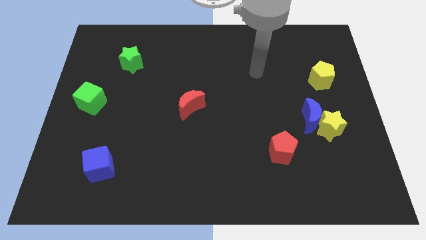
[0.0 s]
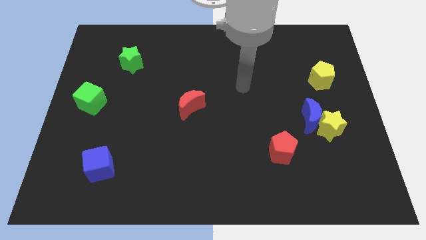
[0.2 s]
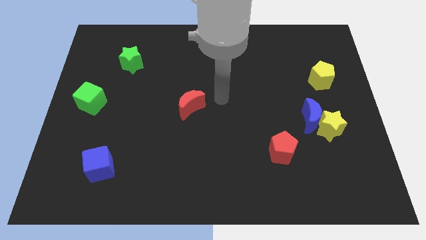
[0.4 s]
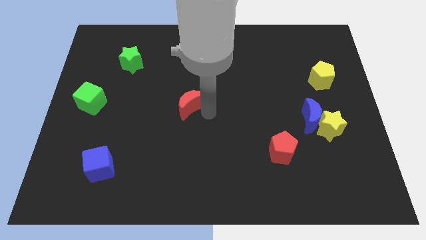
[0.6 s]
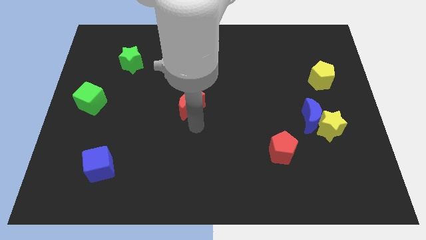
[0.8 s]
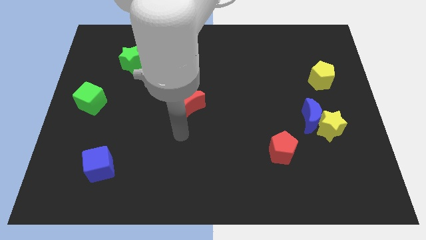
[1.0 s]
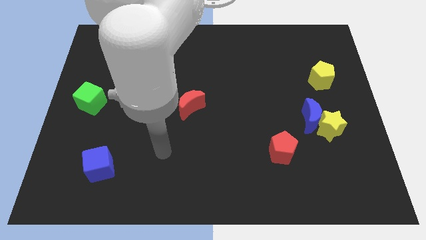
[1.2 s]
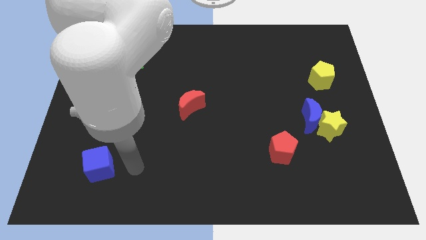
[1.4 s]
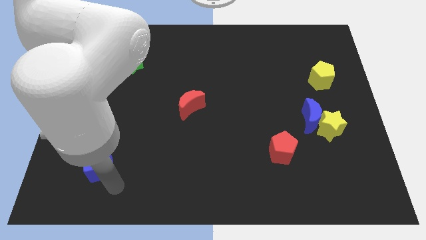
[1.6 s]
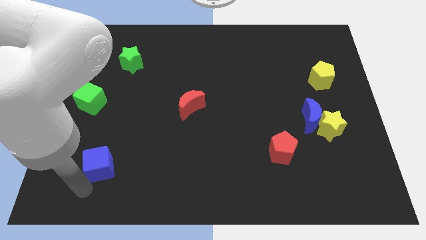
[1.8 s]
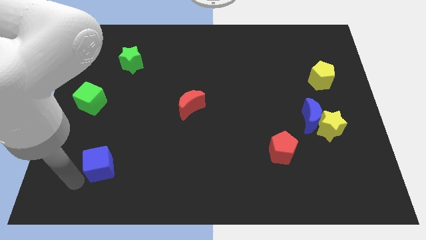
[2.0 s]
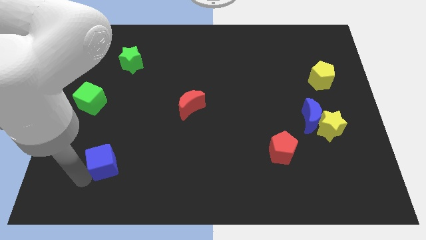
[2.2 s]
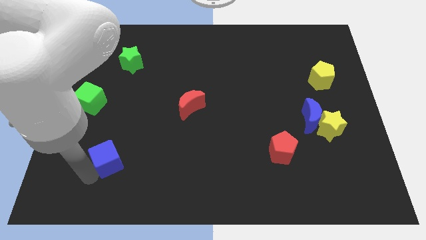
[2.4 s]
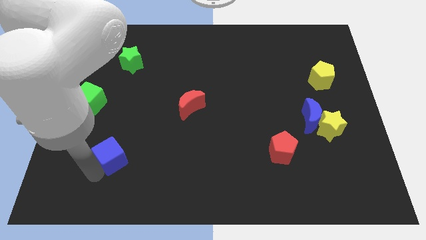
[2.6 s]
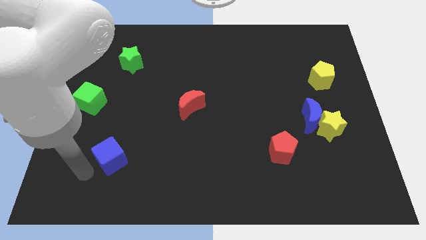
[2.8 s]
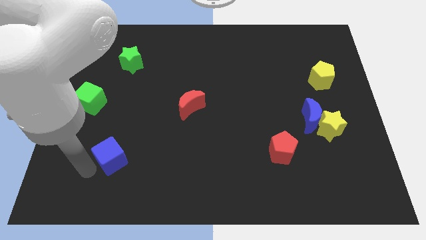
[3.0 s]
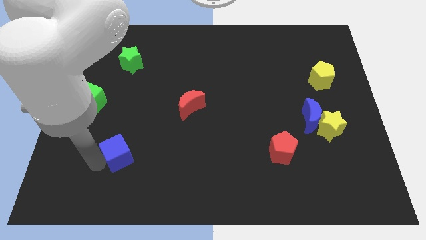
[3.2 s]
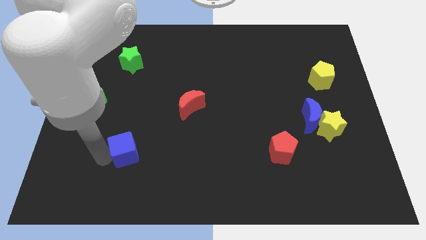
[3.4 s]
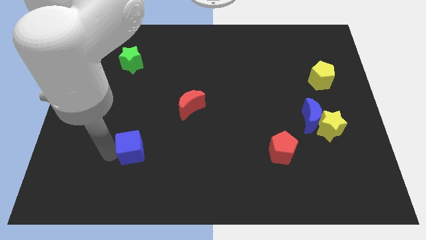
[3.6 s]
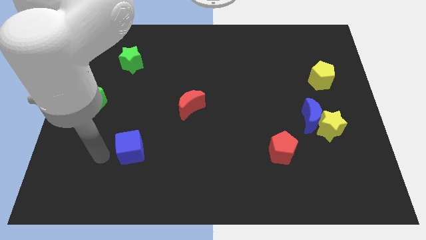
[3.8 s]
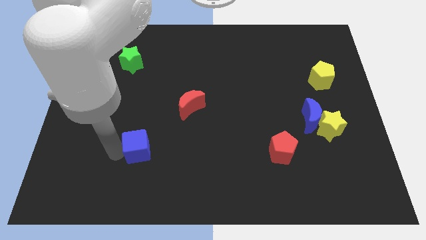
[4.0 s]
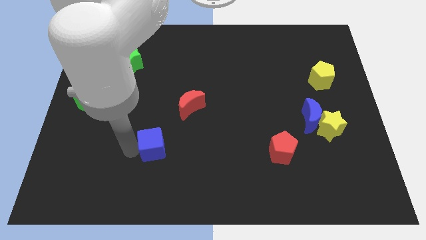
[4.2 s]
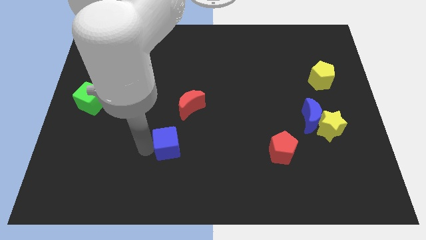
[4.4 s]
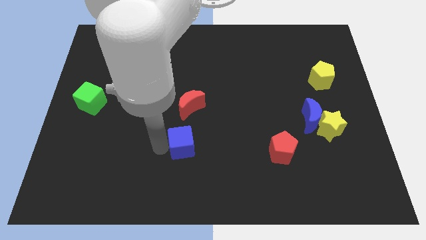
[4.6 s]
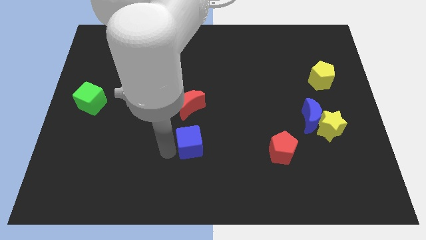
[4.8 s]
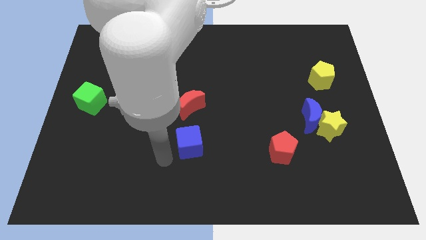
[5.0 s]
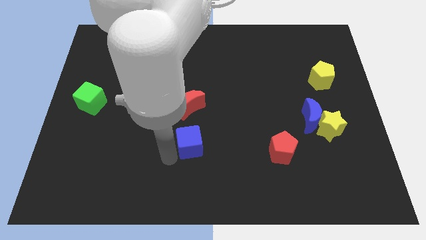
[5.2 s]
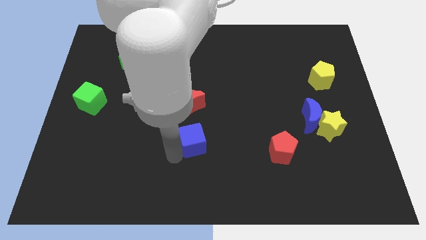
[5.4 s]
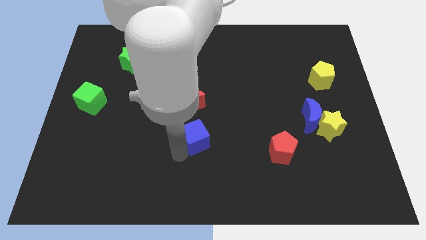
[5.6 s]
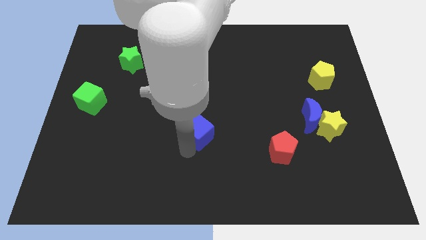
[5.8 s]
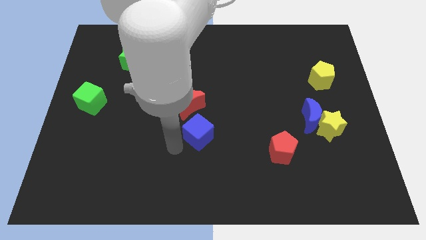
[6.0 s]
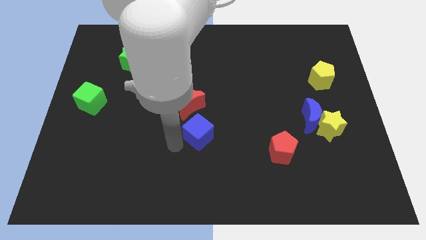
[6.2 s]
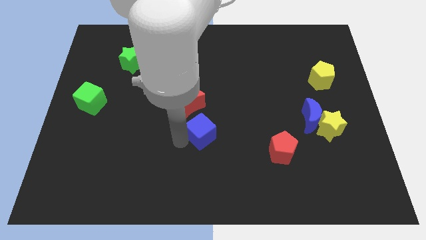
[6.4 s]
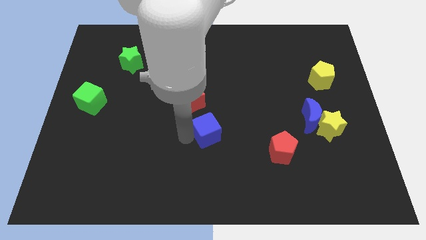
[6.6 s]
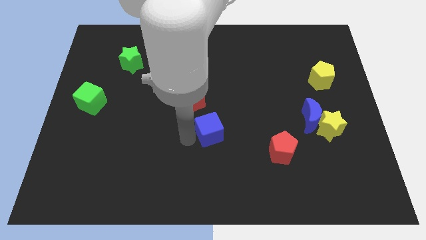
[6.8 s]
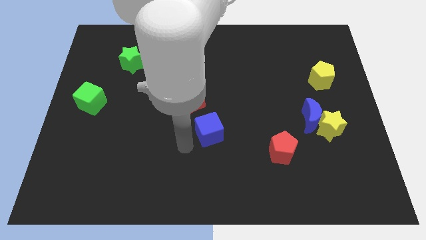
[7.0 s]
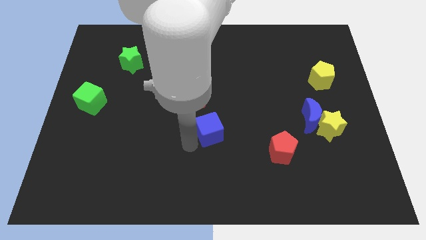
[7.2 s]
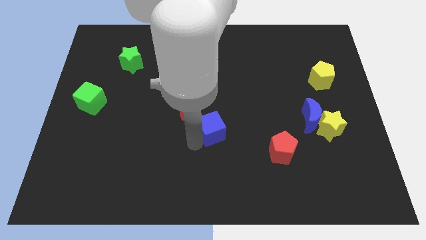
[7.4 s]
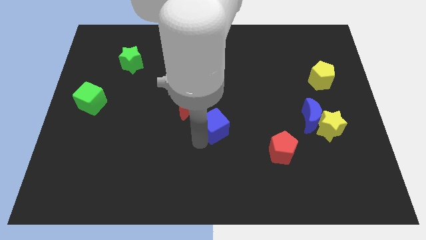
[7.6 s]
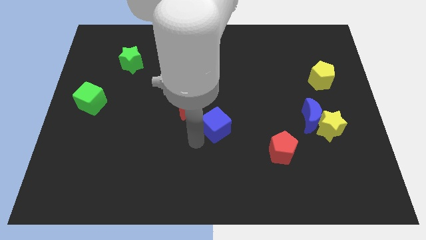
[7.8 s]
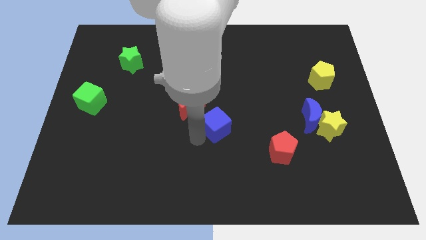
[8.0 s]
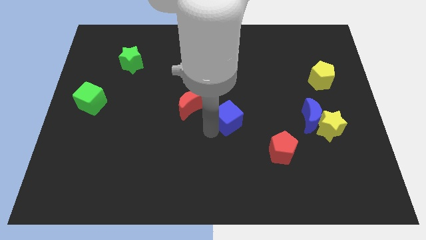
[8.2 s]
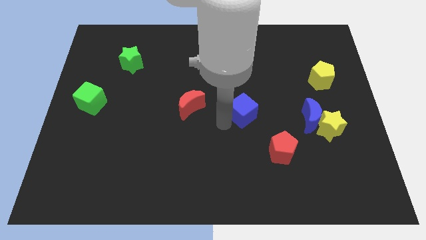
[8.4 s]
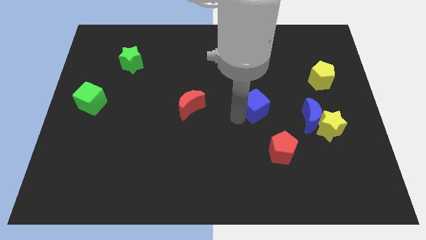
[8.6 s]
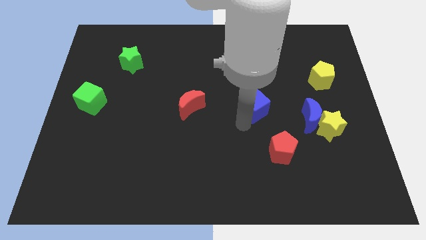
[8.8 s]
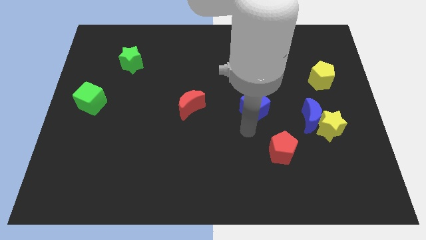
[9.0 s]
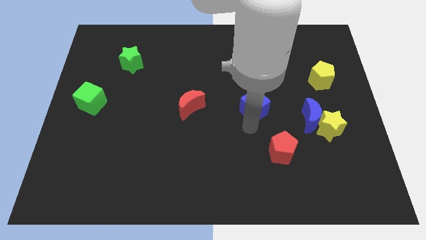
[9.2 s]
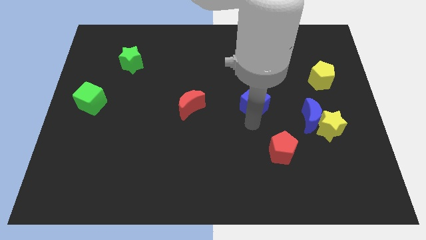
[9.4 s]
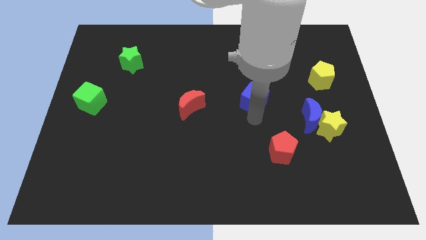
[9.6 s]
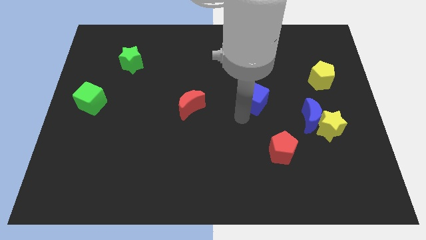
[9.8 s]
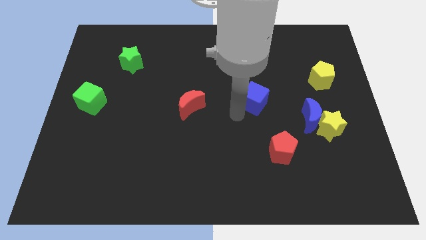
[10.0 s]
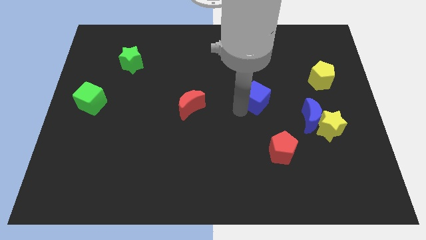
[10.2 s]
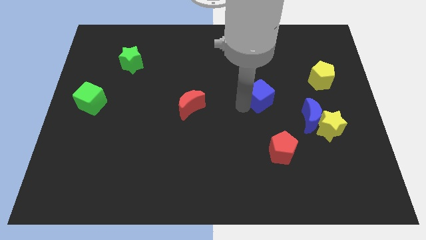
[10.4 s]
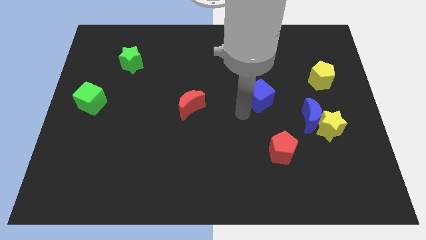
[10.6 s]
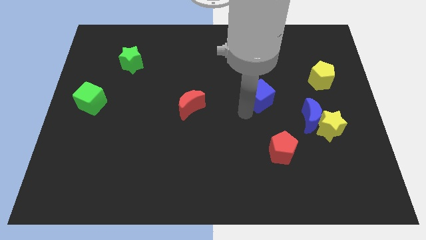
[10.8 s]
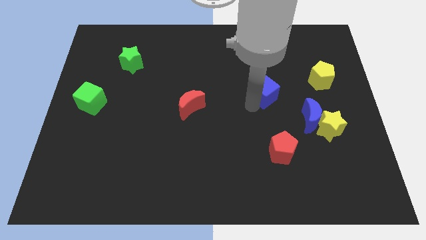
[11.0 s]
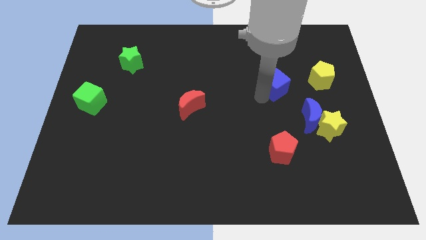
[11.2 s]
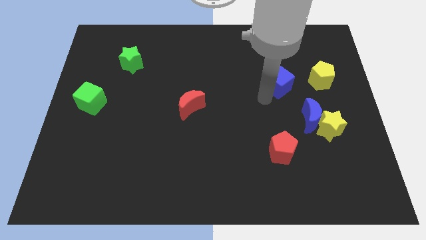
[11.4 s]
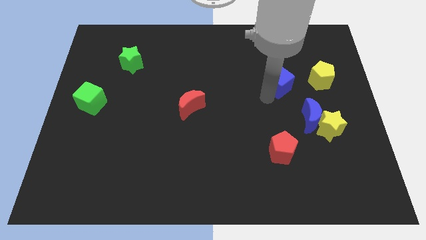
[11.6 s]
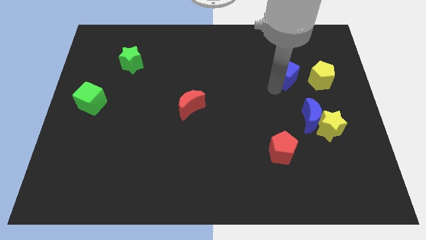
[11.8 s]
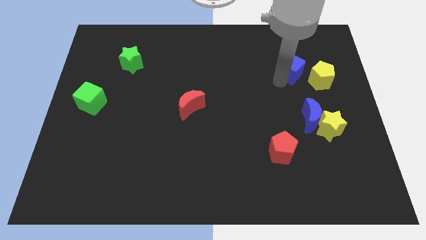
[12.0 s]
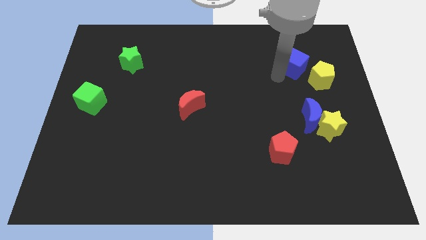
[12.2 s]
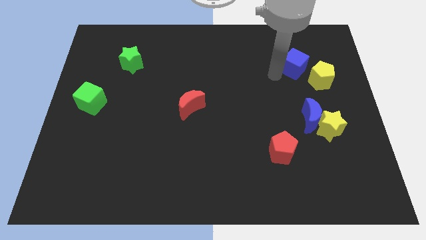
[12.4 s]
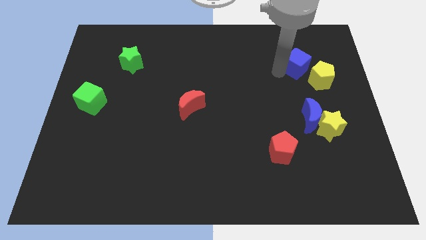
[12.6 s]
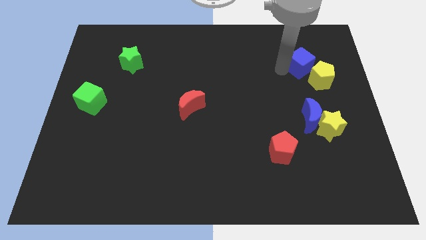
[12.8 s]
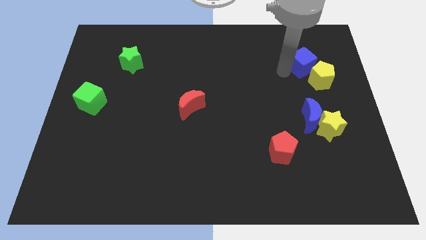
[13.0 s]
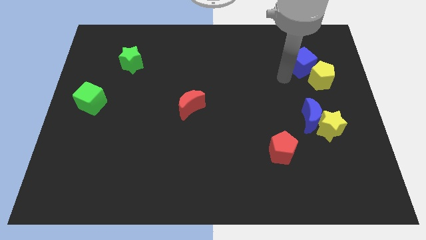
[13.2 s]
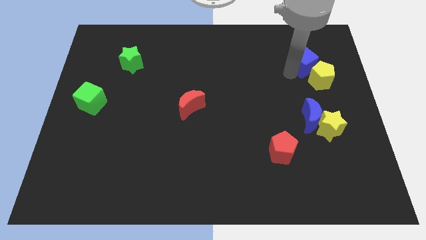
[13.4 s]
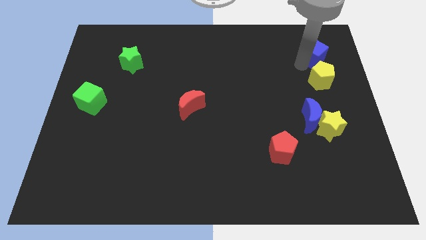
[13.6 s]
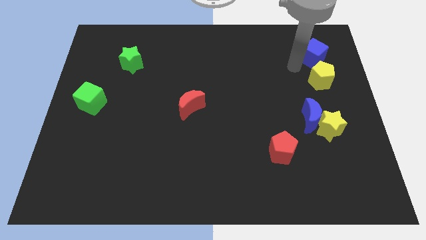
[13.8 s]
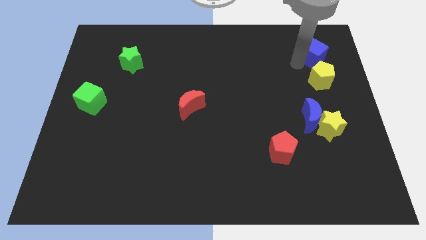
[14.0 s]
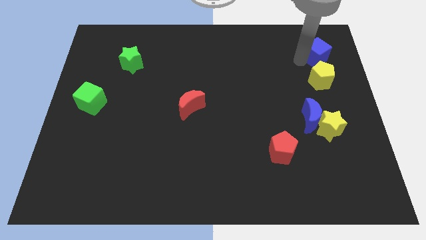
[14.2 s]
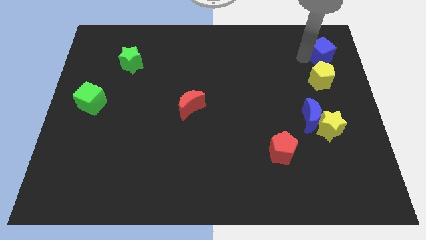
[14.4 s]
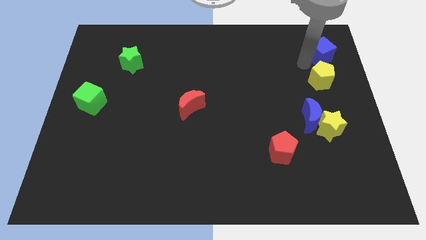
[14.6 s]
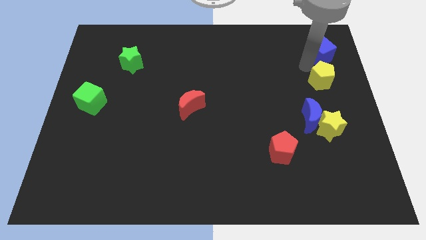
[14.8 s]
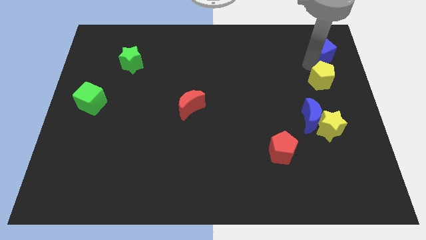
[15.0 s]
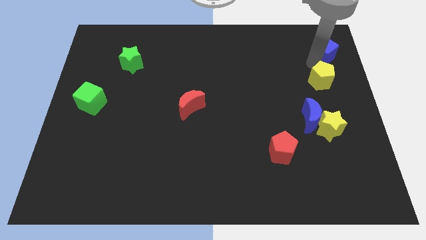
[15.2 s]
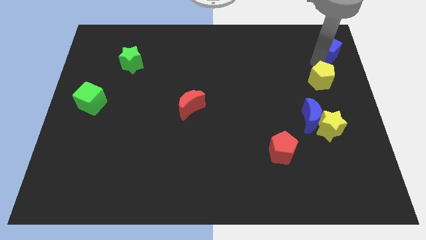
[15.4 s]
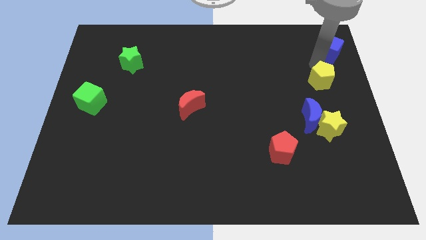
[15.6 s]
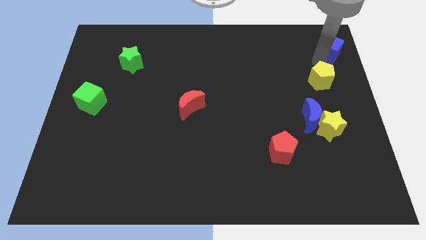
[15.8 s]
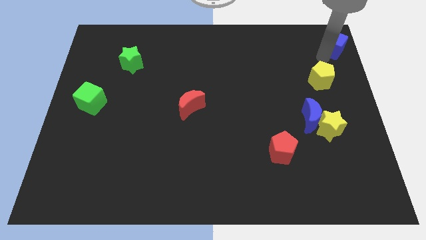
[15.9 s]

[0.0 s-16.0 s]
slide the blue cube to the upper right corner
